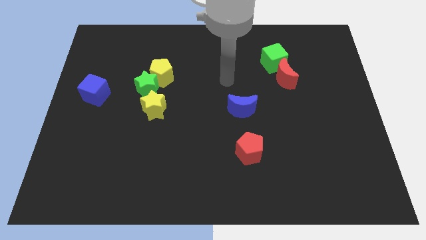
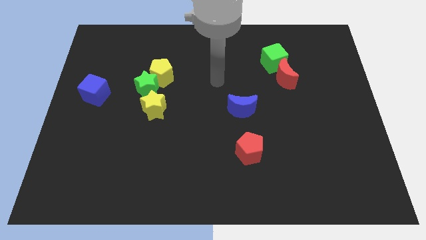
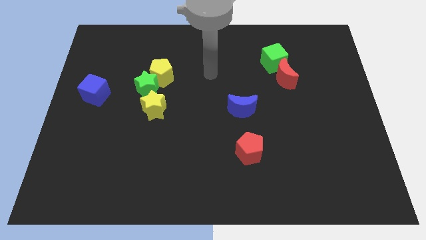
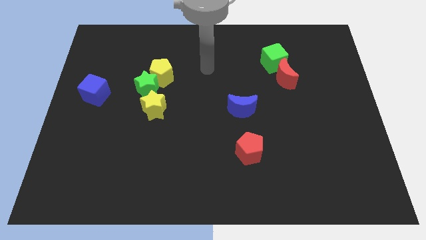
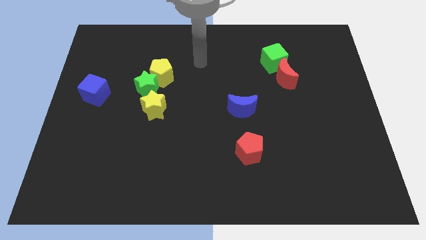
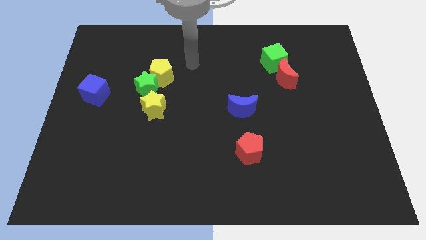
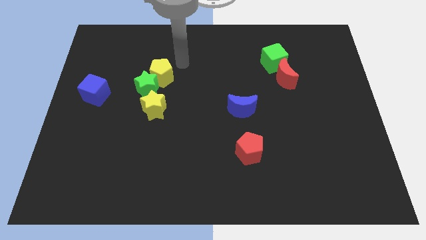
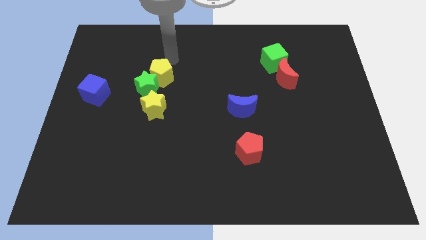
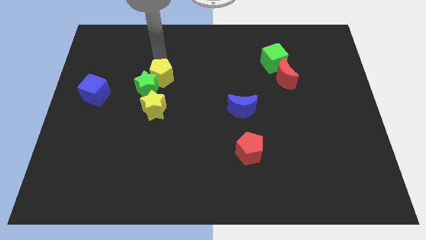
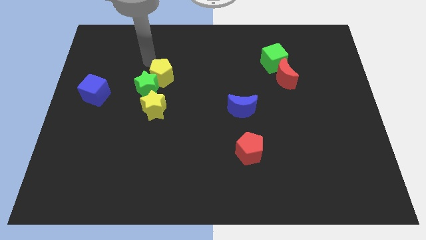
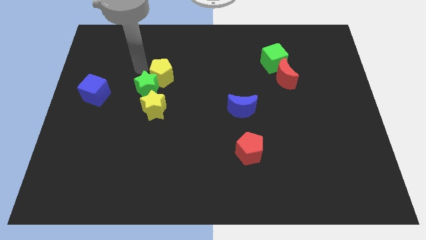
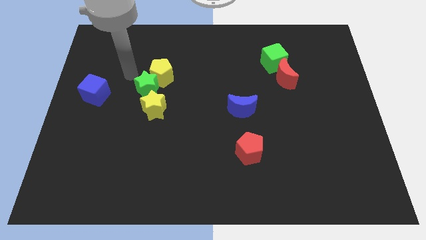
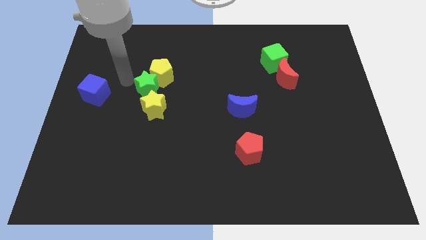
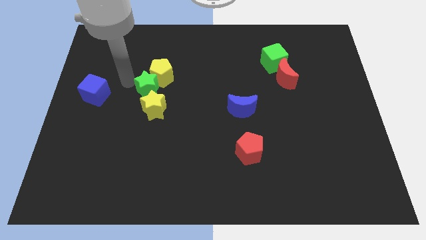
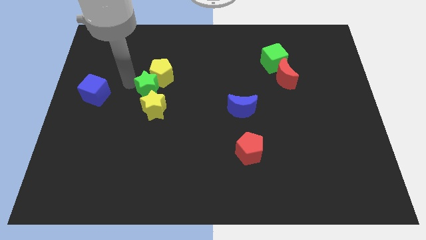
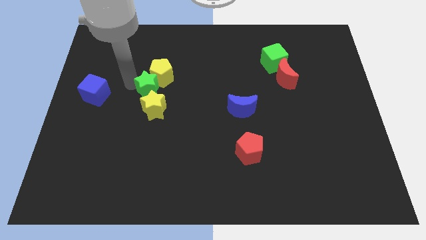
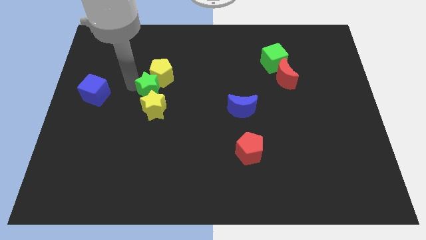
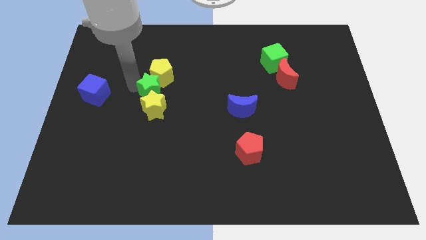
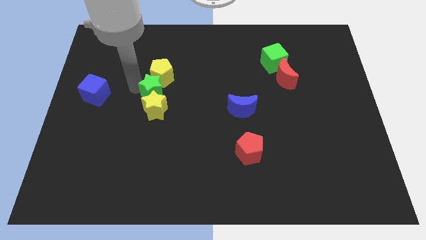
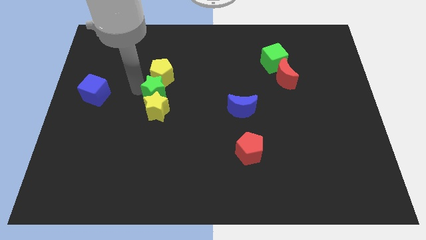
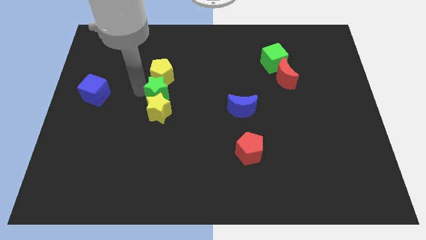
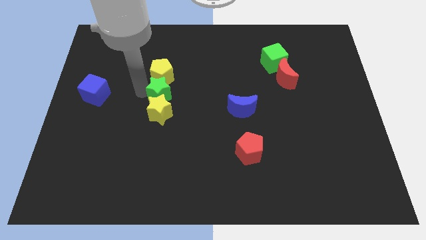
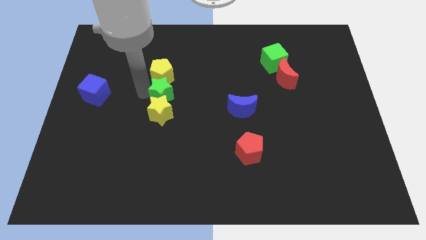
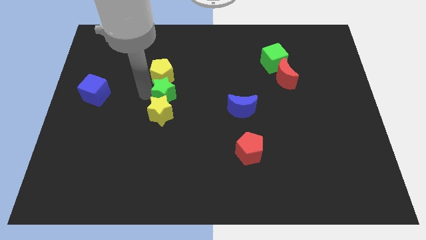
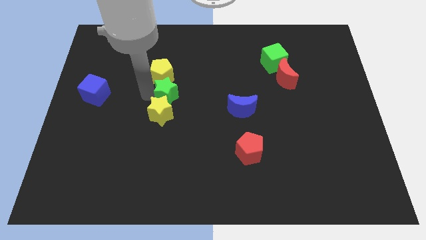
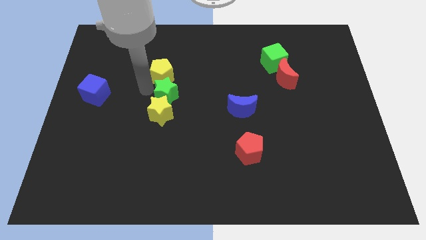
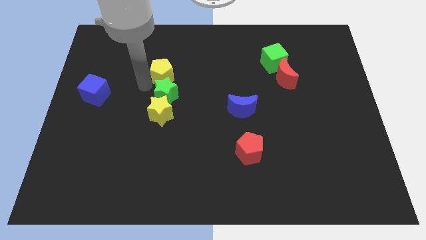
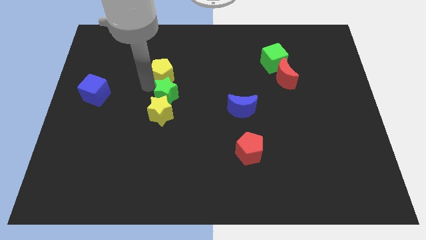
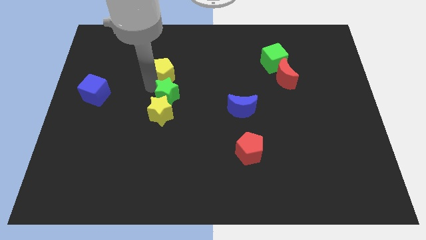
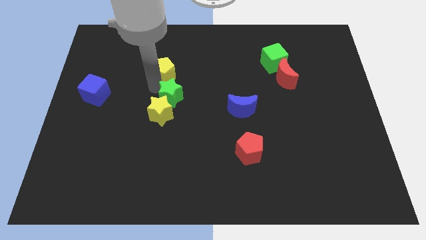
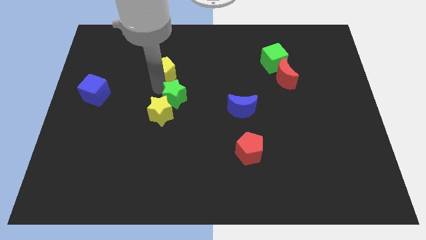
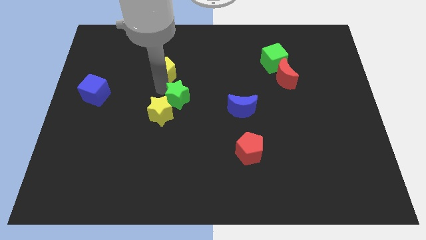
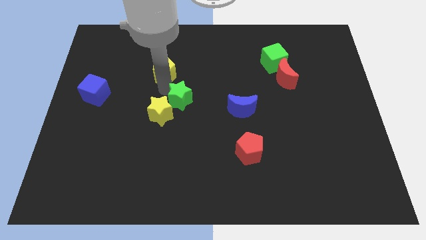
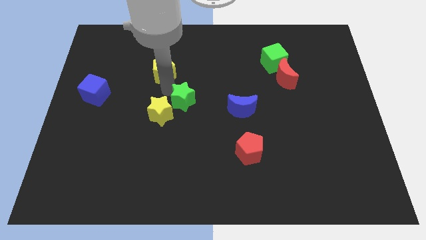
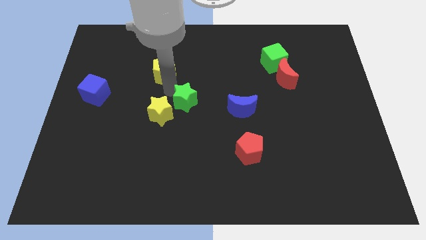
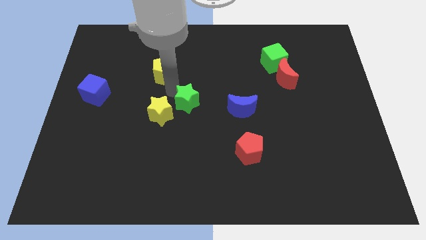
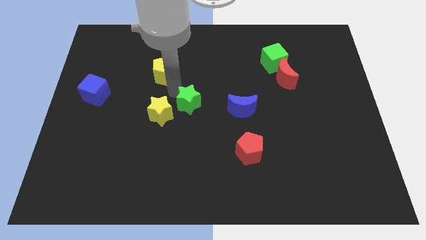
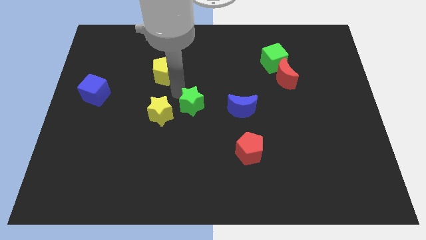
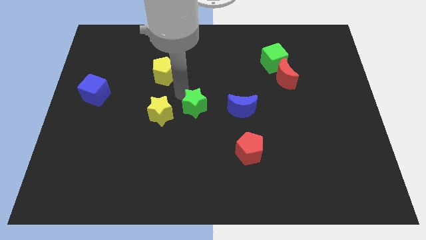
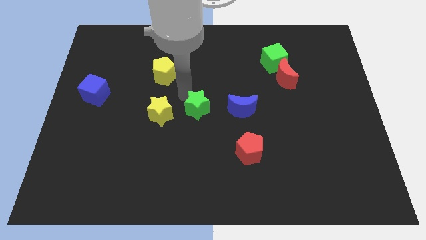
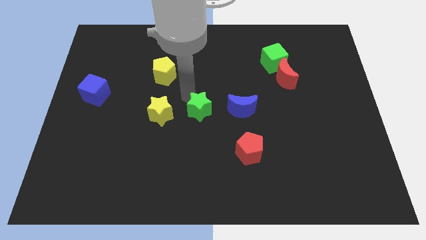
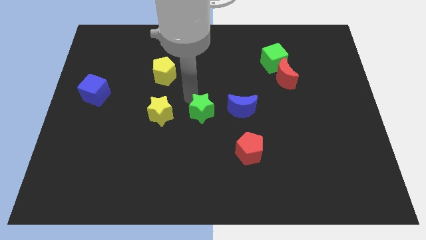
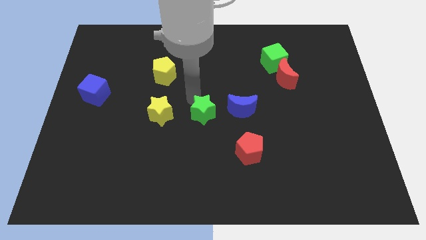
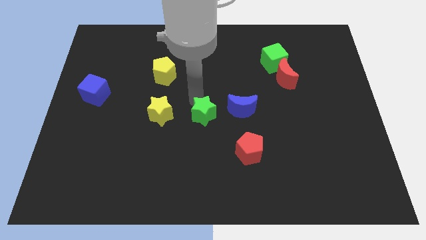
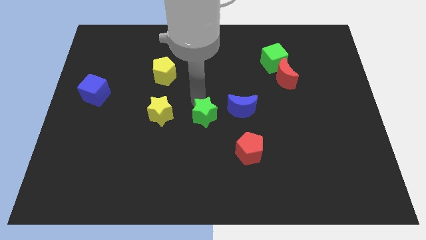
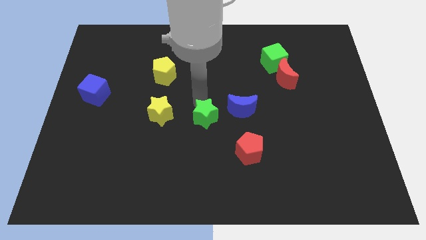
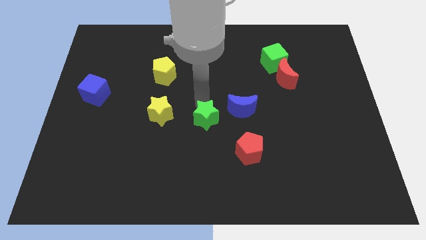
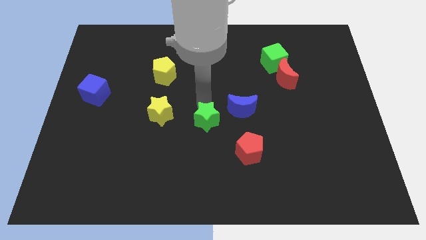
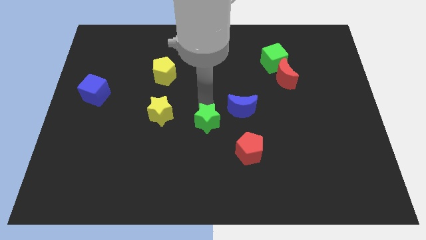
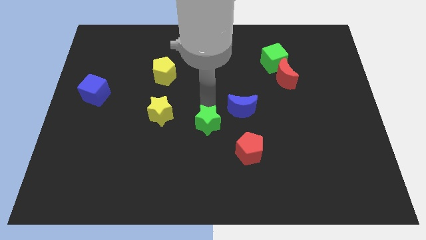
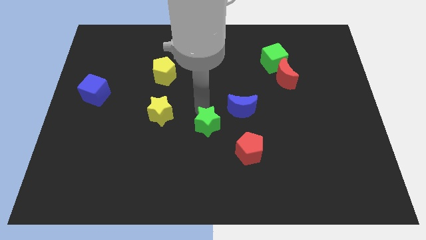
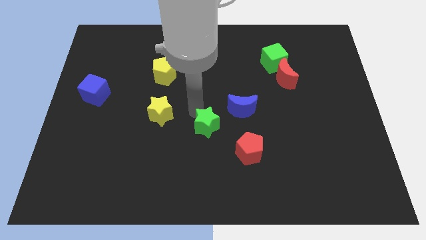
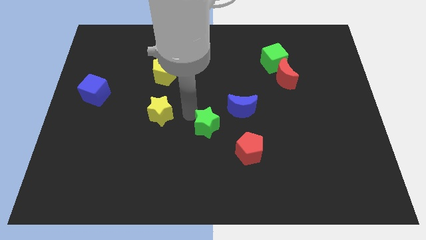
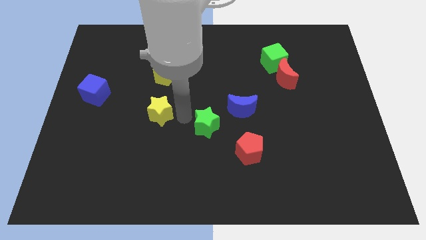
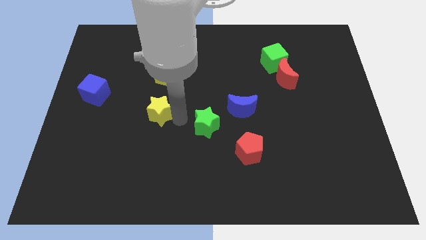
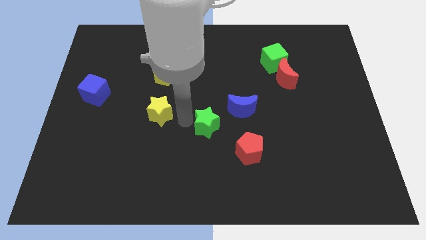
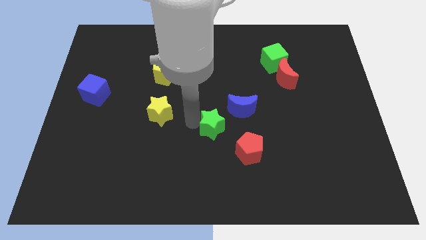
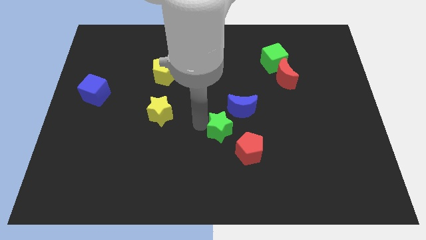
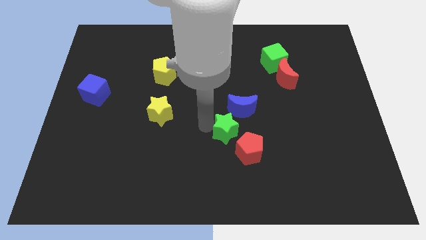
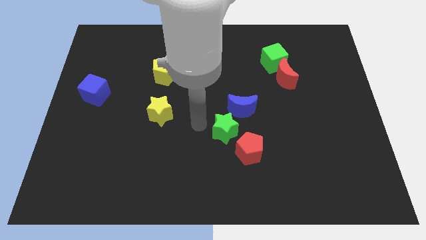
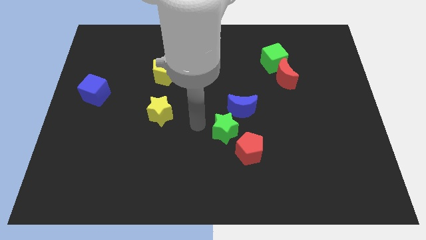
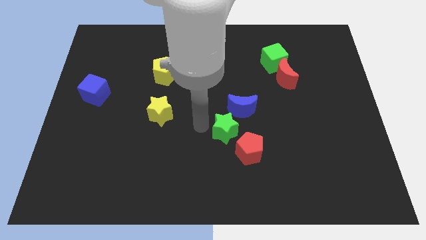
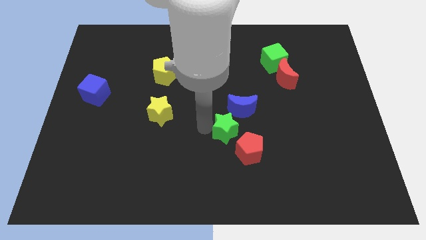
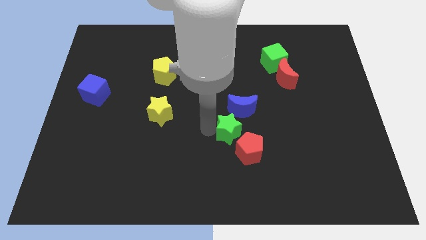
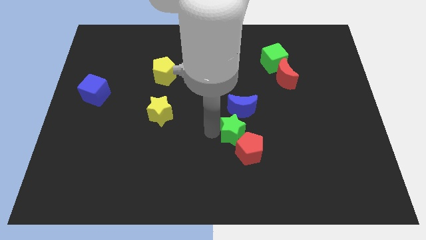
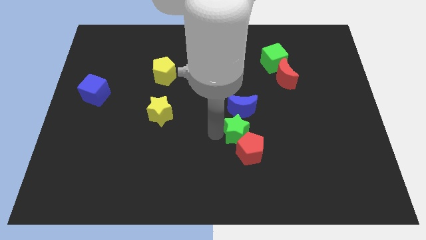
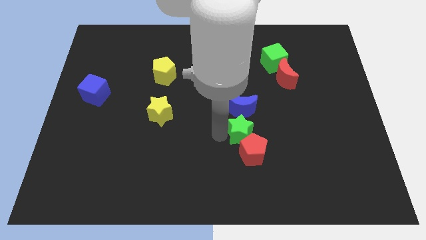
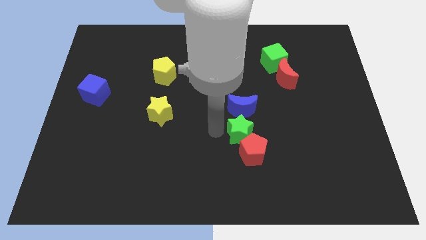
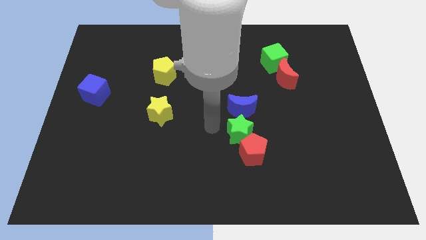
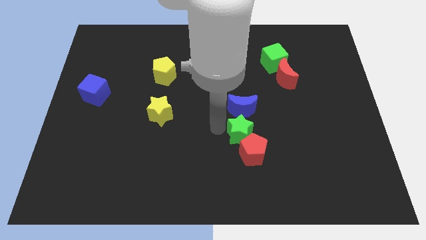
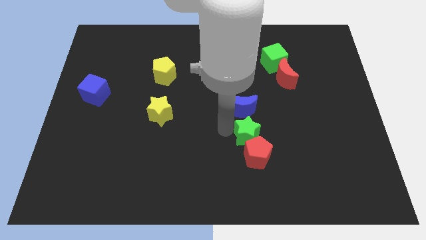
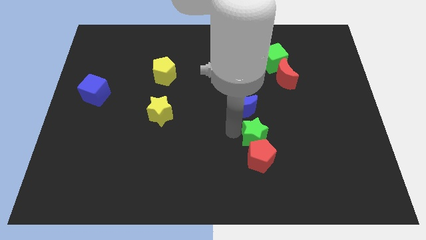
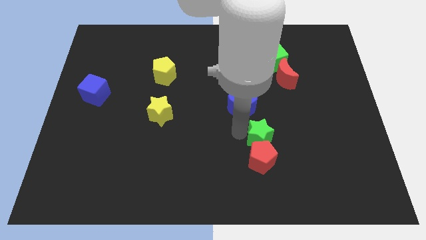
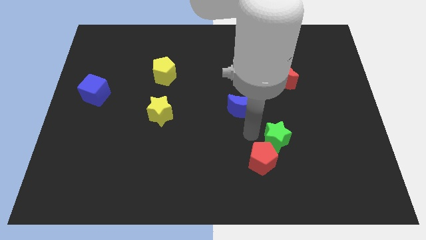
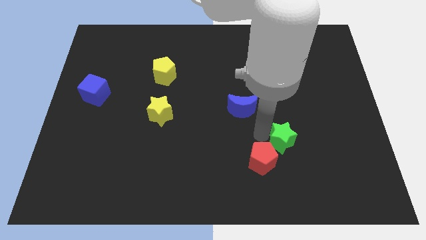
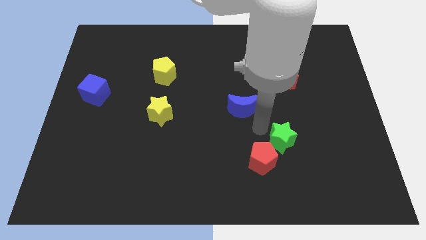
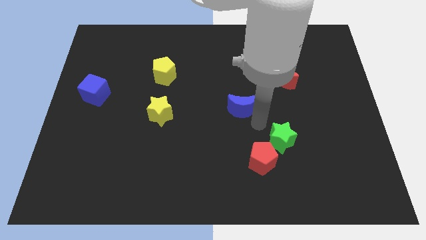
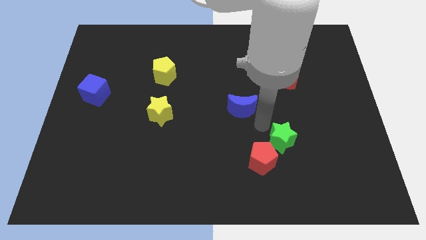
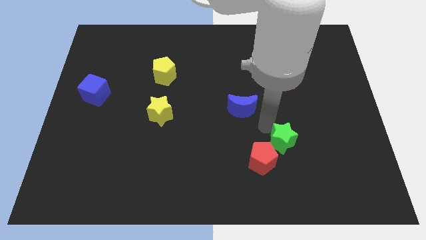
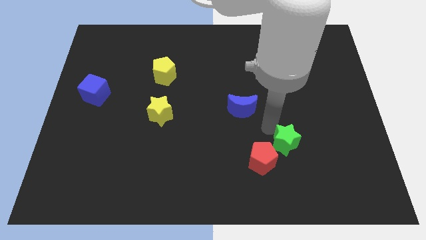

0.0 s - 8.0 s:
push the green star to the right of the red pentagon
